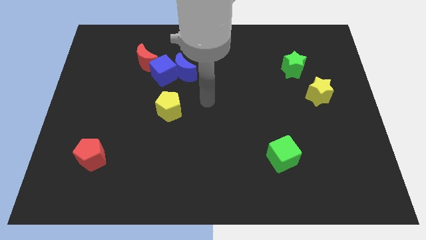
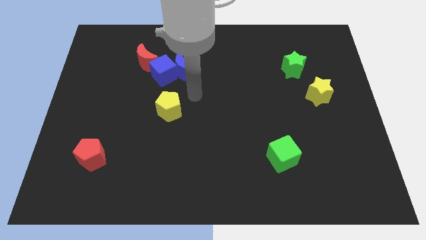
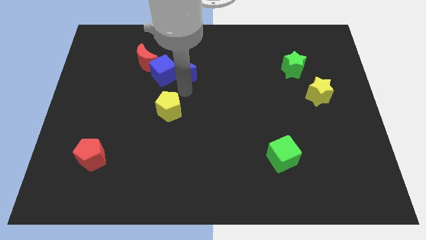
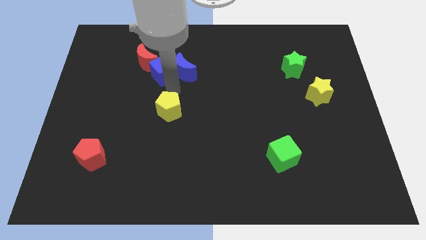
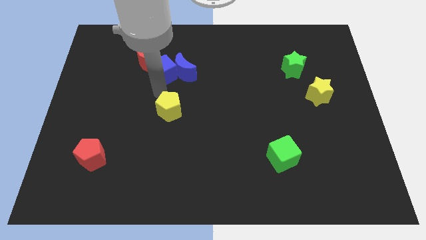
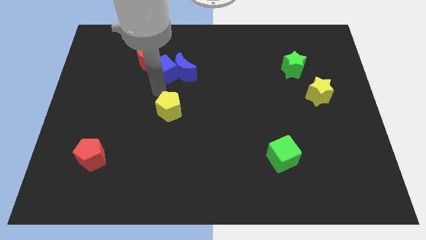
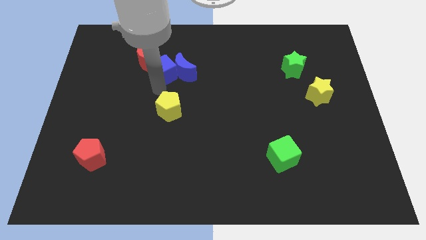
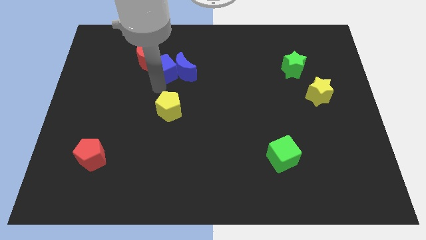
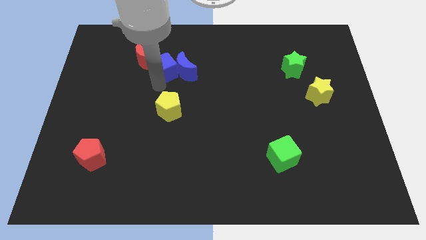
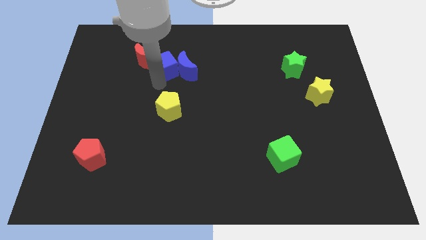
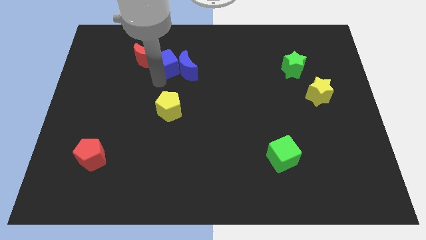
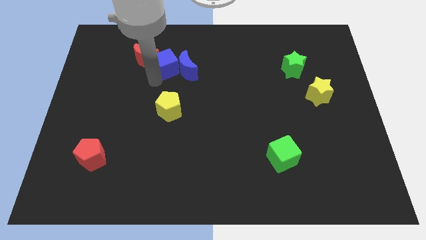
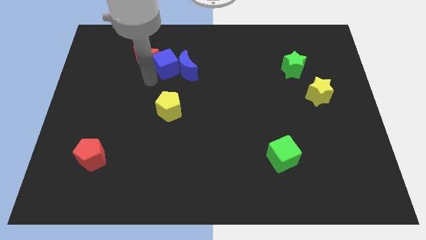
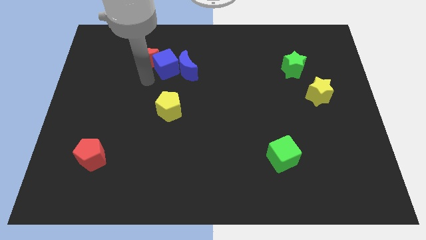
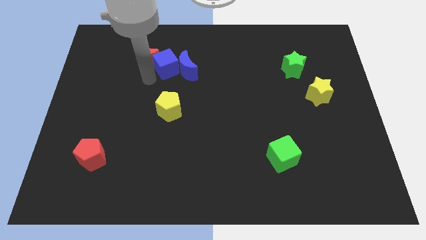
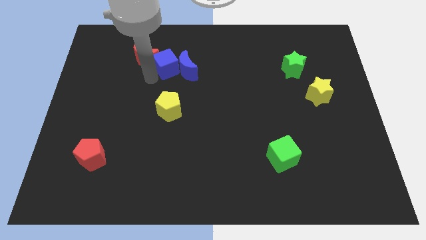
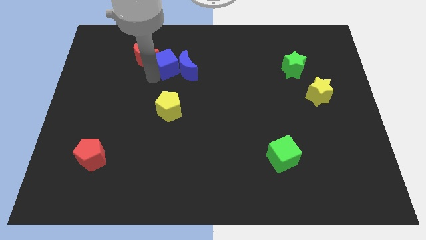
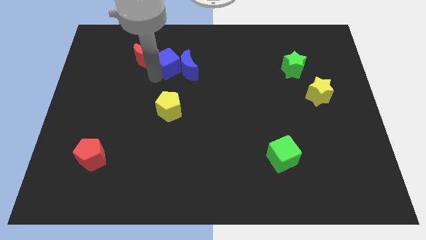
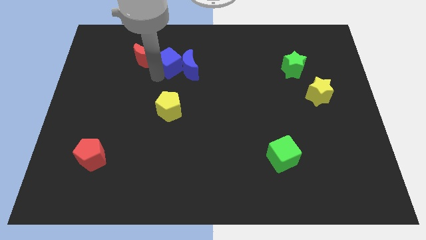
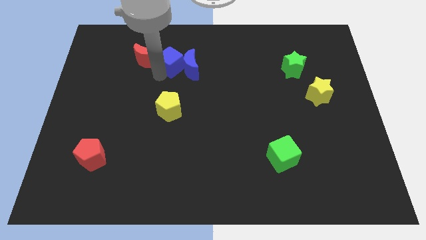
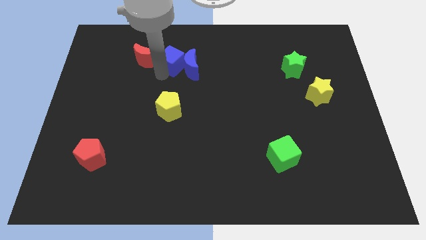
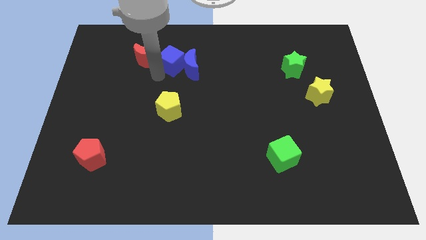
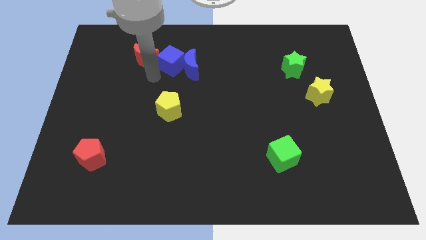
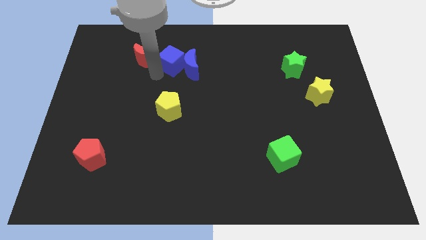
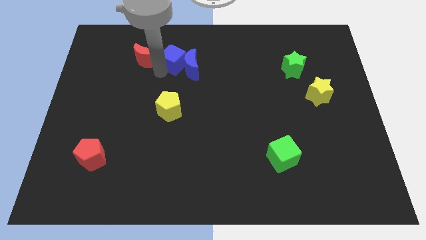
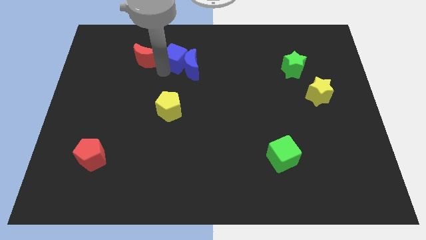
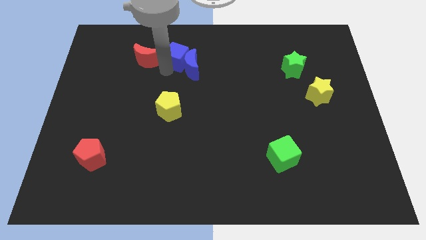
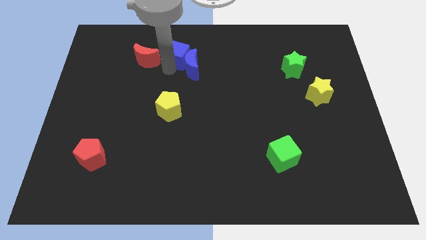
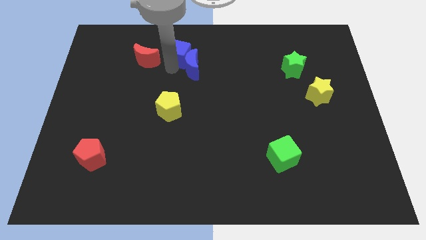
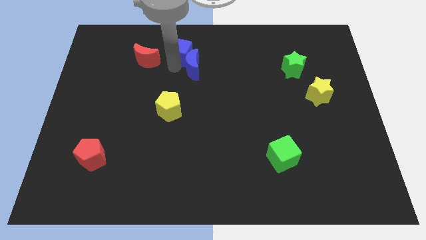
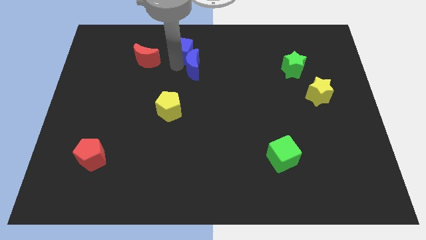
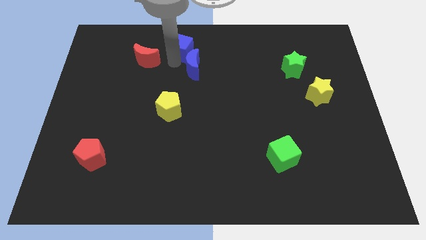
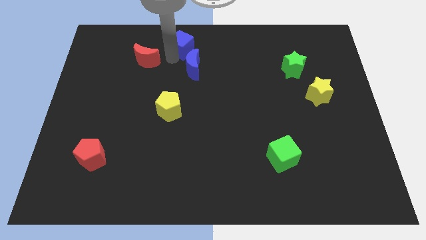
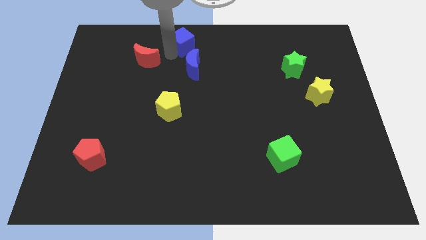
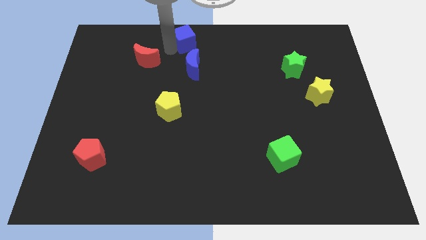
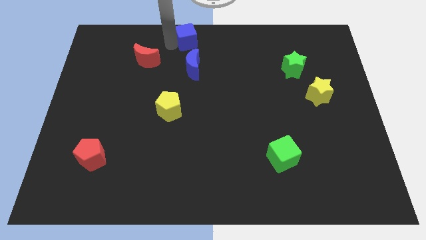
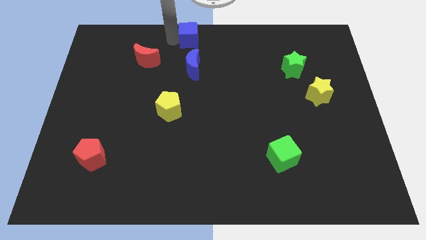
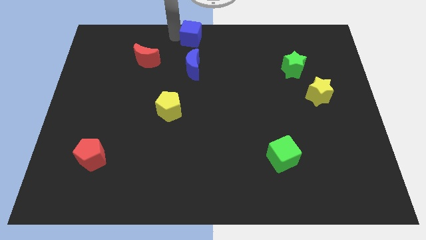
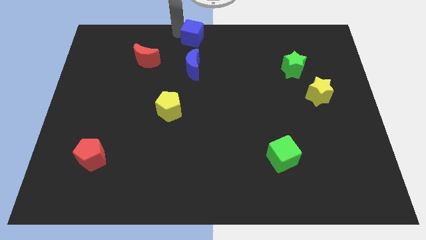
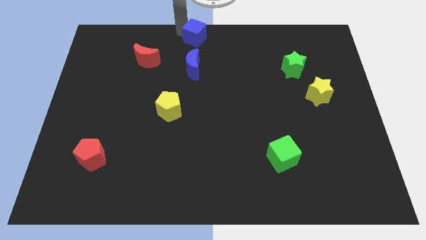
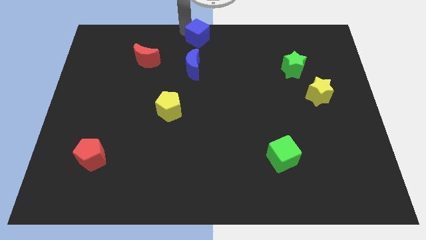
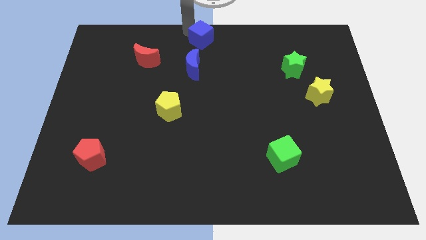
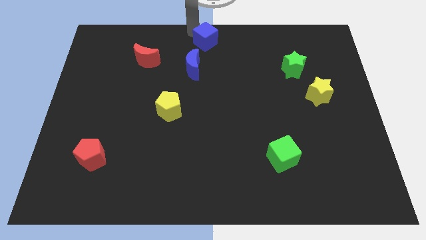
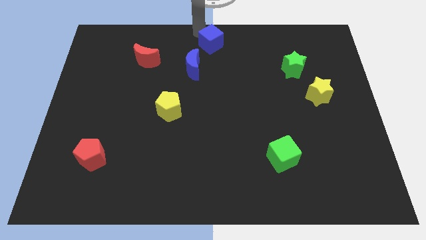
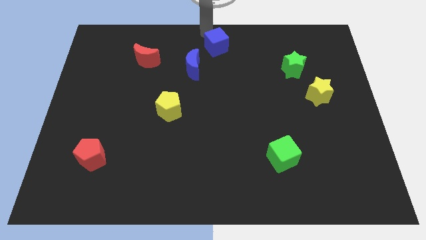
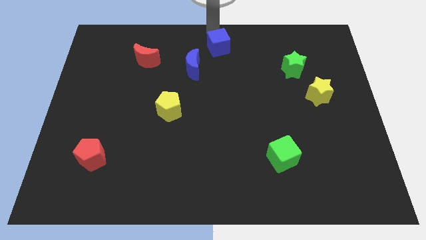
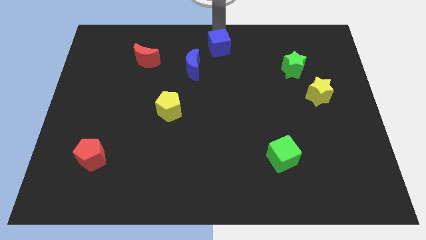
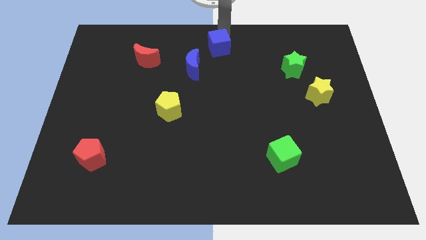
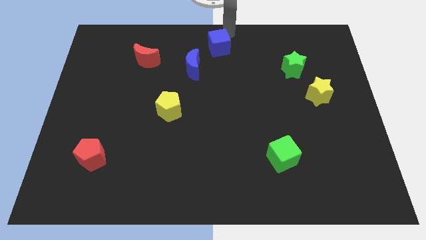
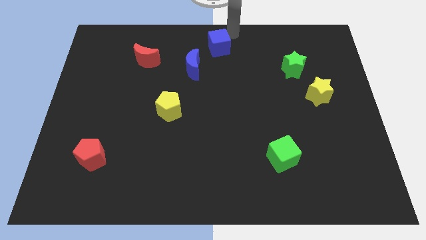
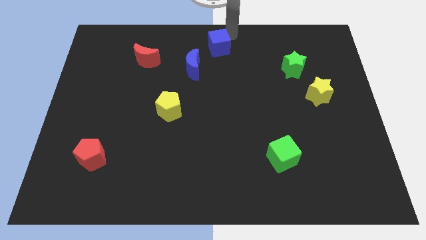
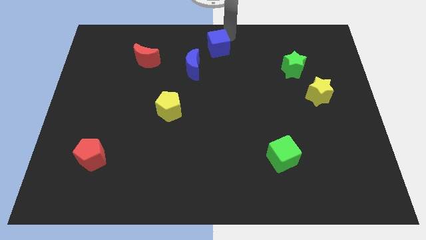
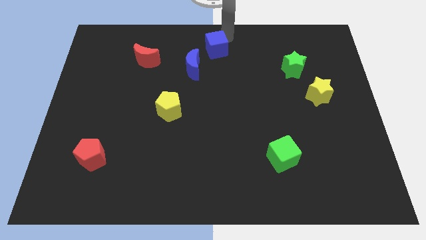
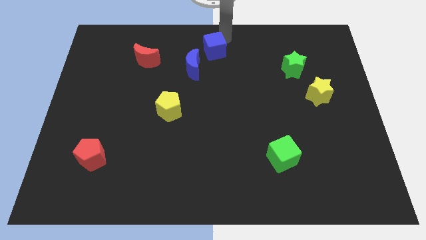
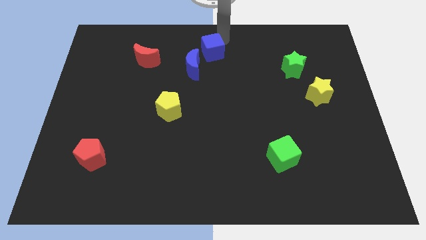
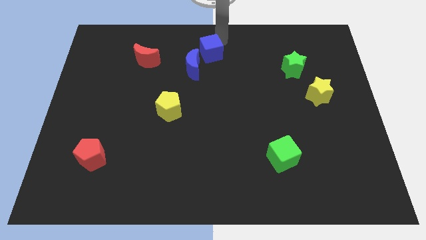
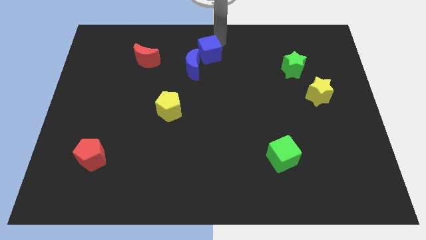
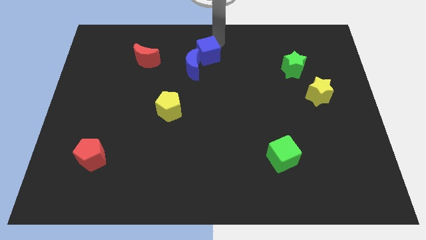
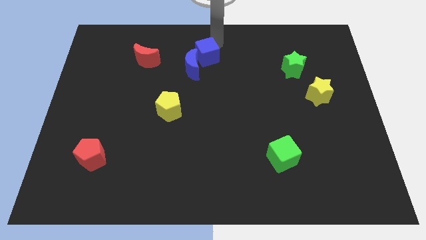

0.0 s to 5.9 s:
move the blue cube to the right of the blue moon

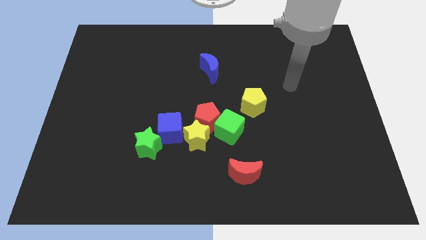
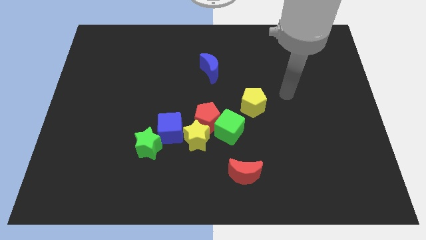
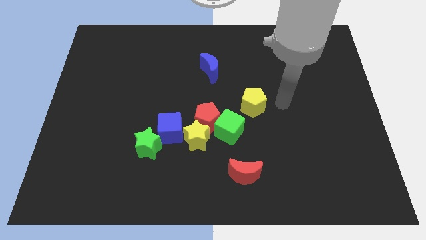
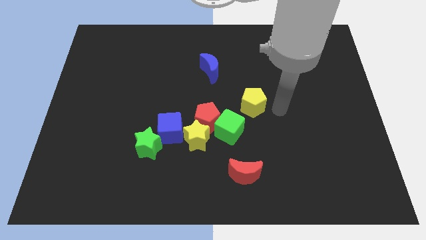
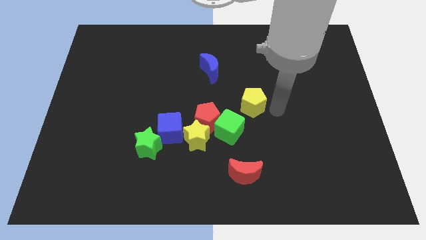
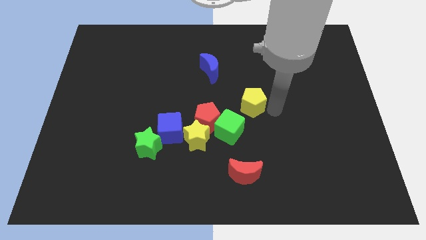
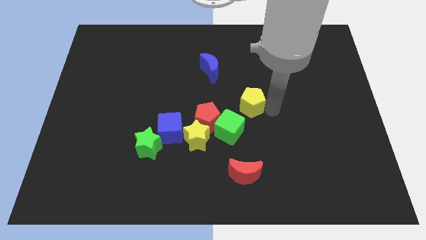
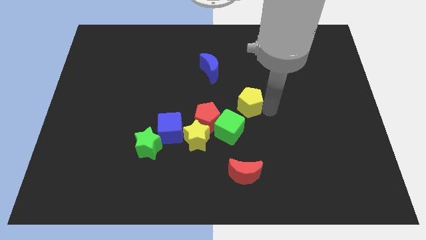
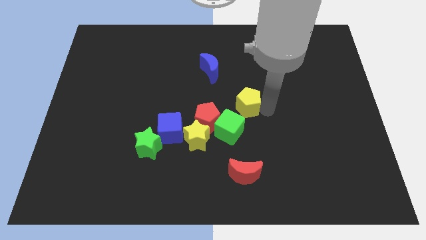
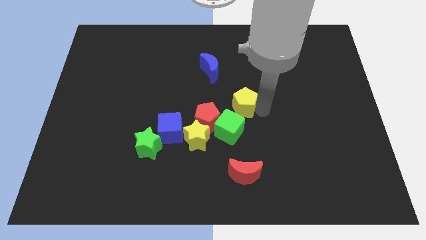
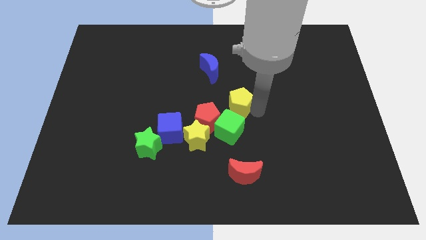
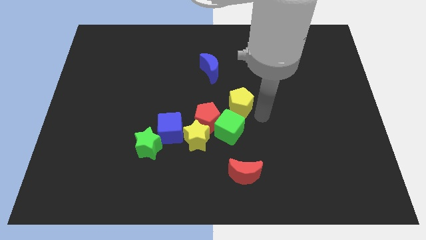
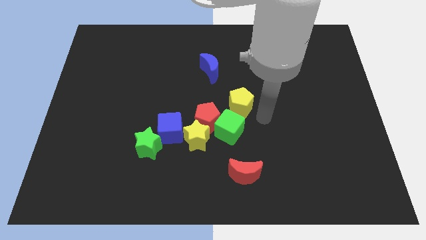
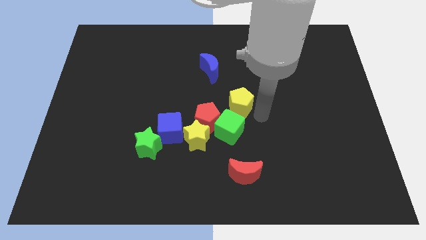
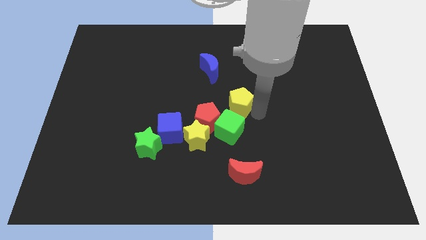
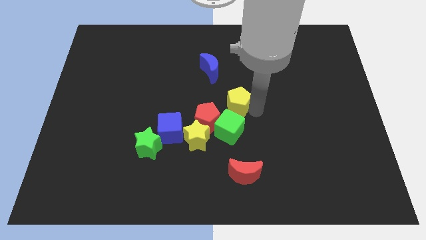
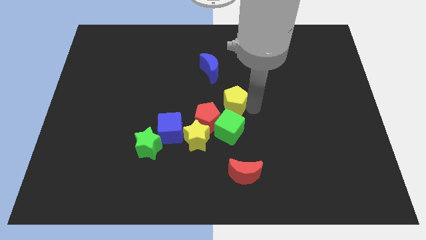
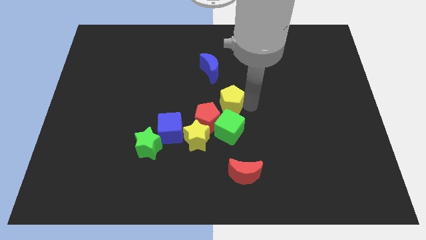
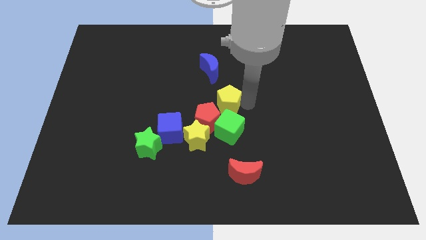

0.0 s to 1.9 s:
push the yellow pentagon to the top side of the red pentagon
